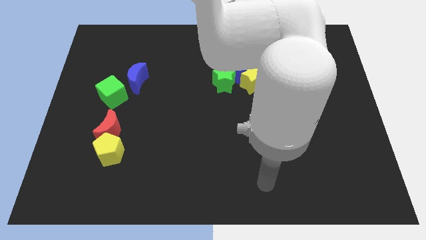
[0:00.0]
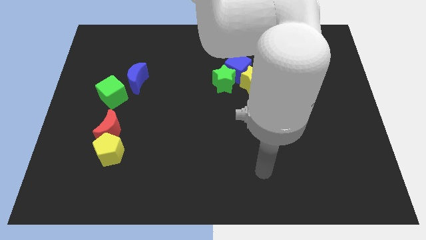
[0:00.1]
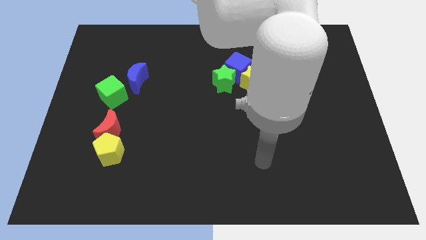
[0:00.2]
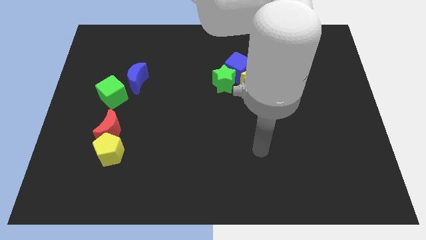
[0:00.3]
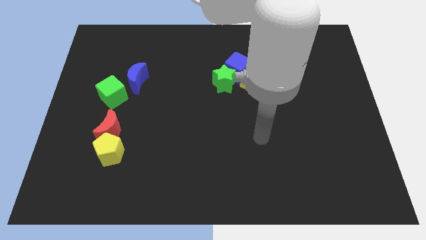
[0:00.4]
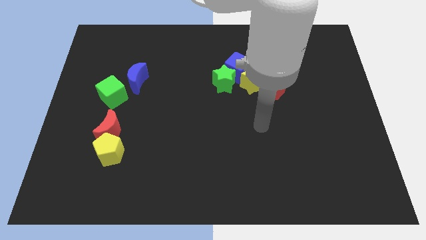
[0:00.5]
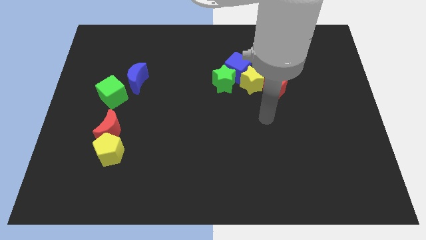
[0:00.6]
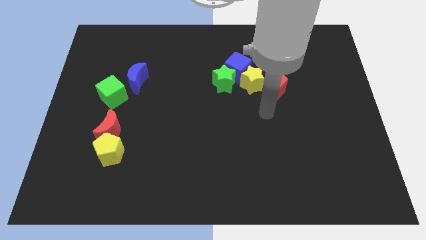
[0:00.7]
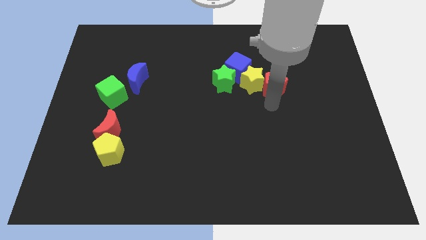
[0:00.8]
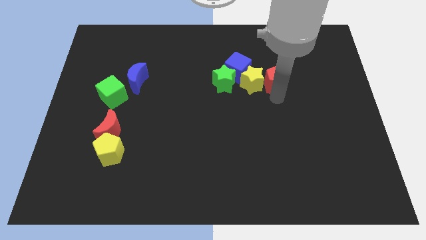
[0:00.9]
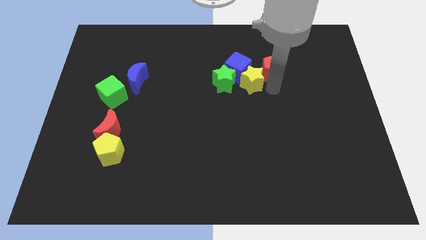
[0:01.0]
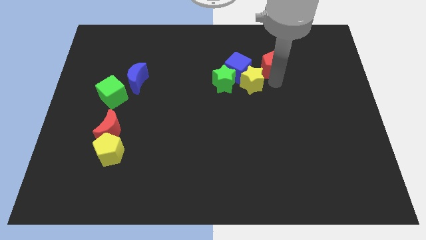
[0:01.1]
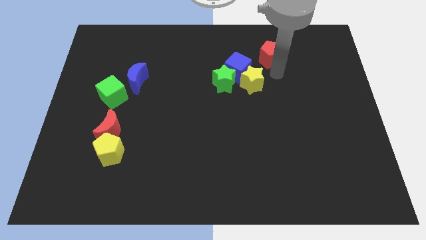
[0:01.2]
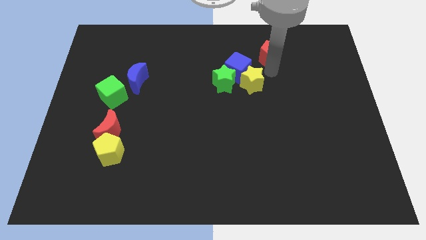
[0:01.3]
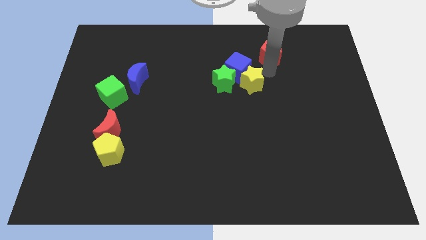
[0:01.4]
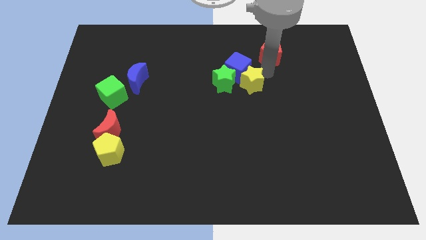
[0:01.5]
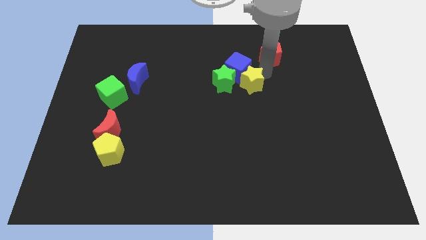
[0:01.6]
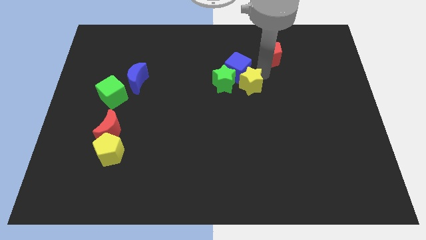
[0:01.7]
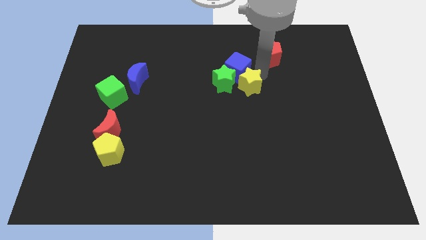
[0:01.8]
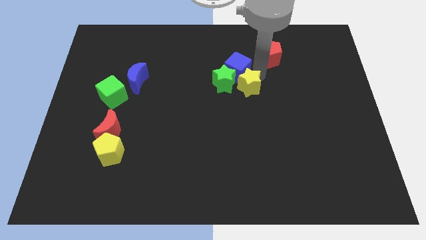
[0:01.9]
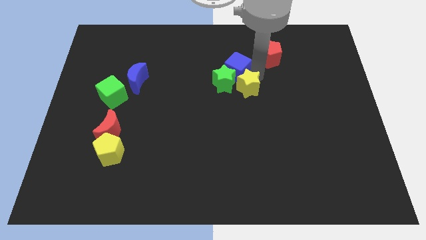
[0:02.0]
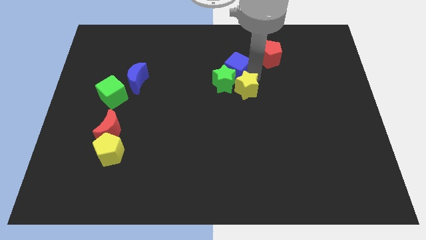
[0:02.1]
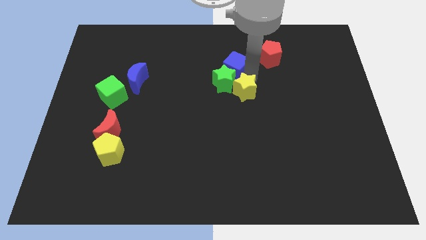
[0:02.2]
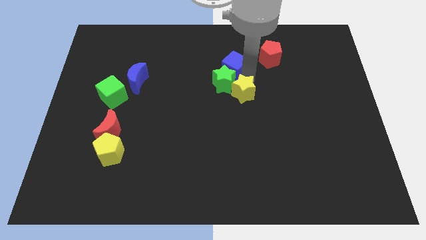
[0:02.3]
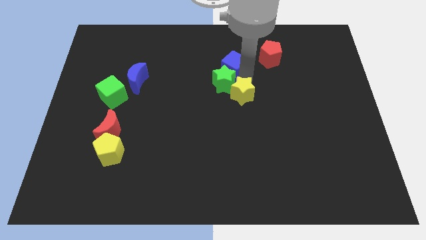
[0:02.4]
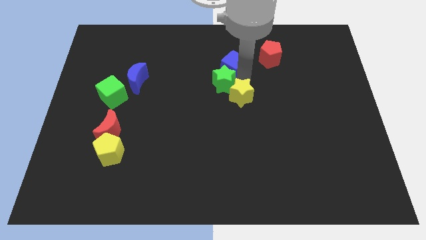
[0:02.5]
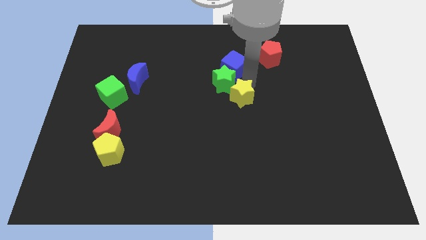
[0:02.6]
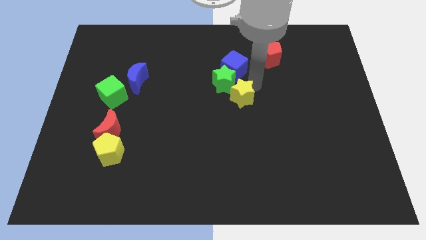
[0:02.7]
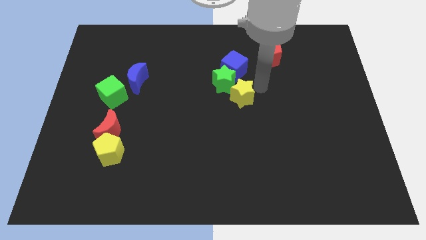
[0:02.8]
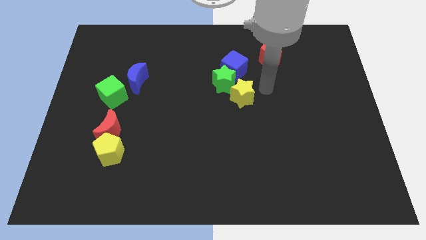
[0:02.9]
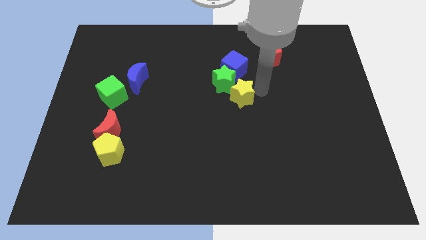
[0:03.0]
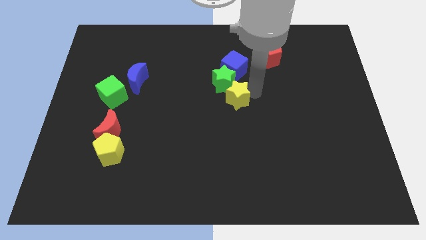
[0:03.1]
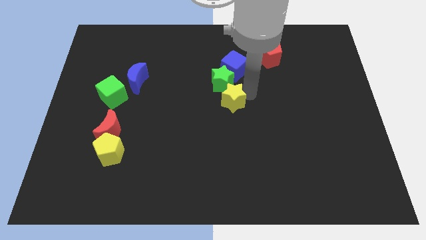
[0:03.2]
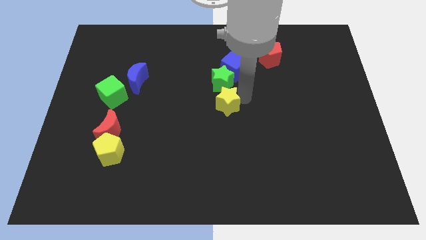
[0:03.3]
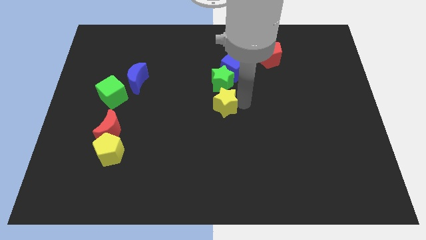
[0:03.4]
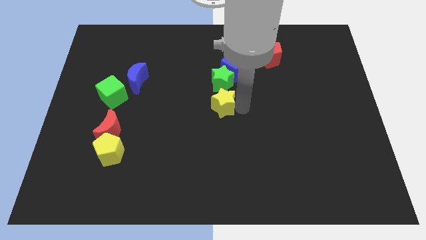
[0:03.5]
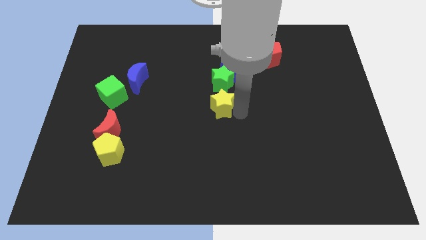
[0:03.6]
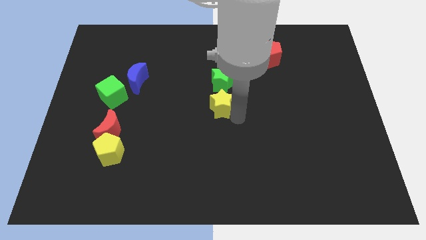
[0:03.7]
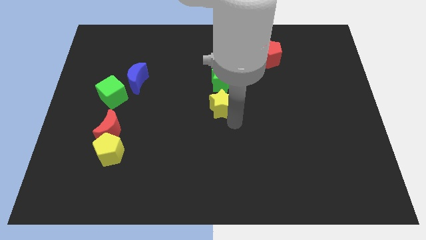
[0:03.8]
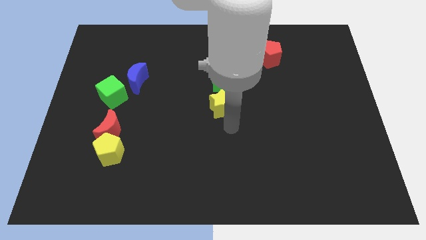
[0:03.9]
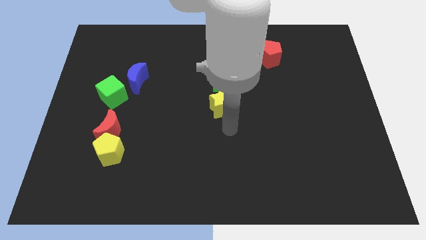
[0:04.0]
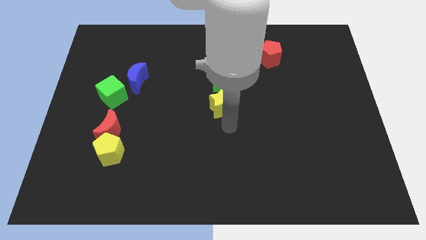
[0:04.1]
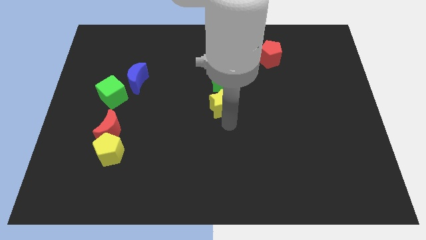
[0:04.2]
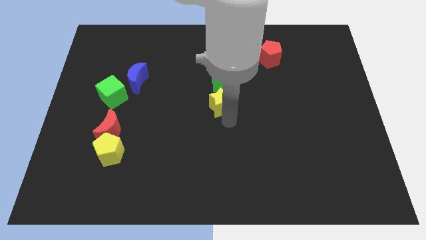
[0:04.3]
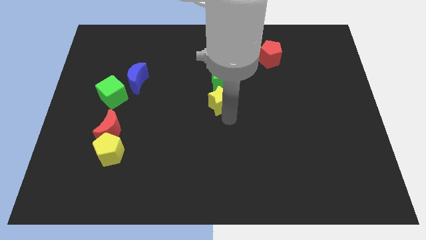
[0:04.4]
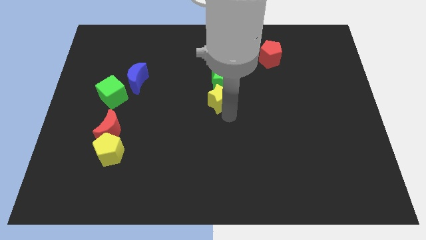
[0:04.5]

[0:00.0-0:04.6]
slide the yellow star diagonally down and to the left of the blue cube

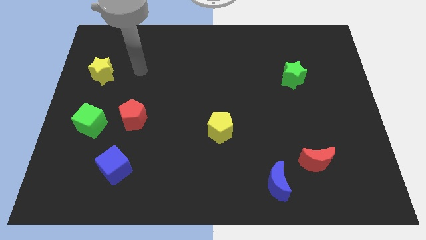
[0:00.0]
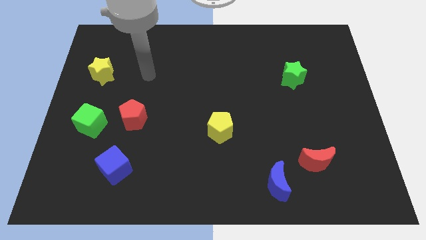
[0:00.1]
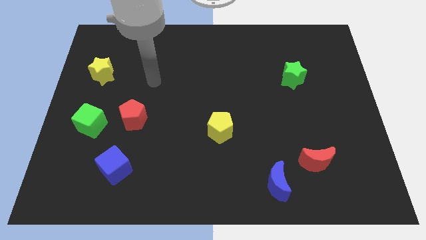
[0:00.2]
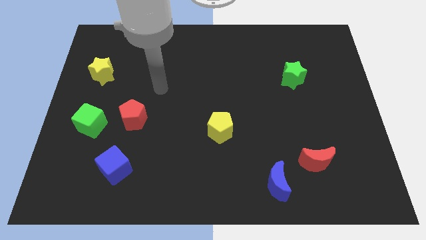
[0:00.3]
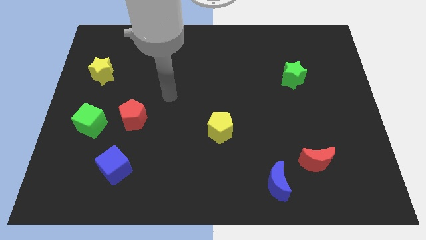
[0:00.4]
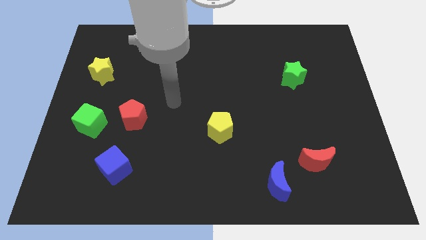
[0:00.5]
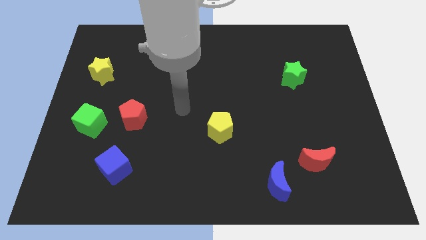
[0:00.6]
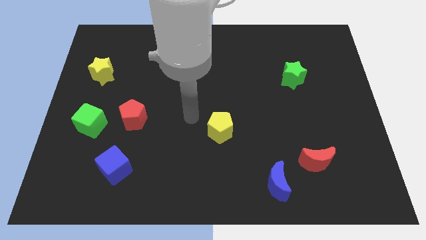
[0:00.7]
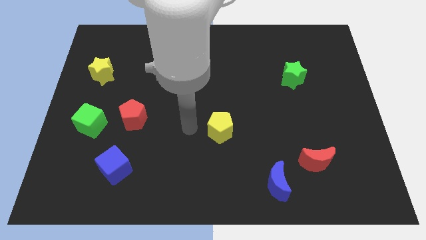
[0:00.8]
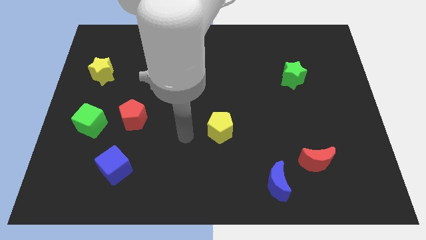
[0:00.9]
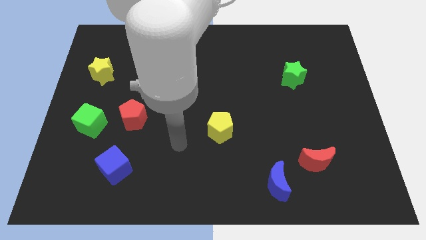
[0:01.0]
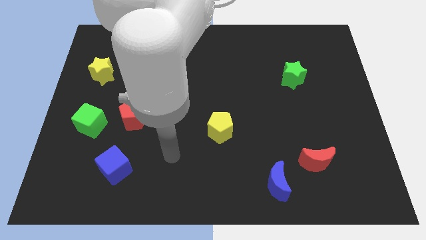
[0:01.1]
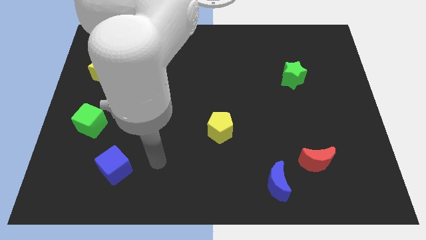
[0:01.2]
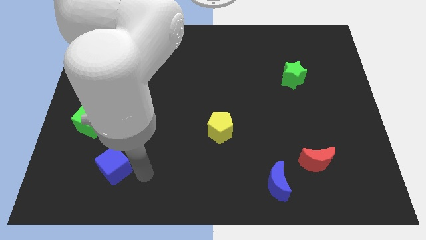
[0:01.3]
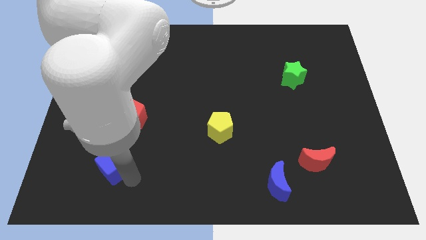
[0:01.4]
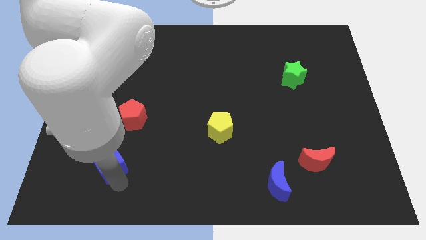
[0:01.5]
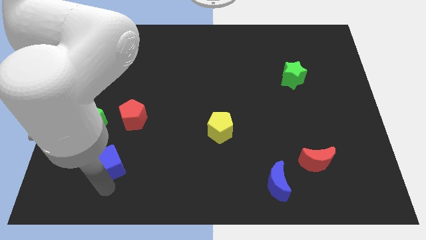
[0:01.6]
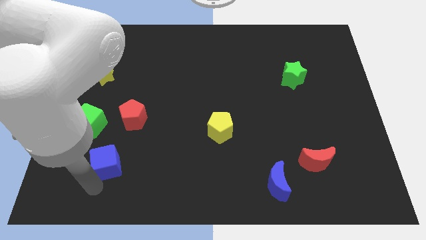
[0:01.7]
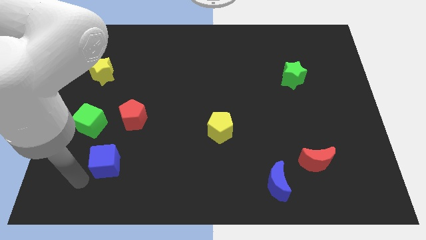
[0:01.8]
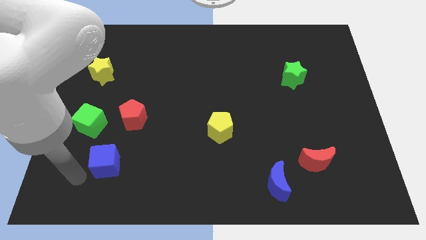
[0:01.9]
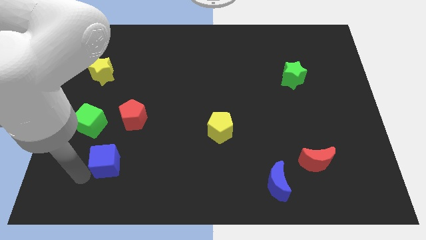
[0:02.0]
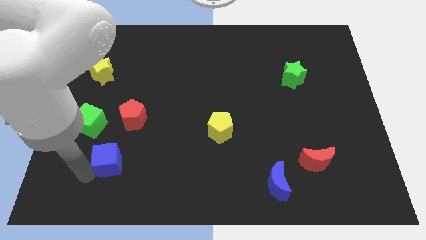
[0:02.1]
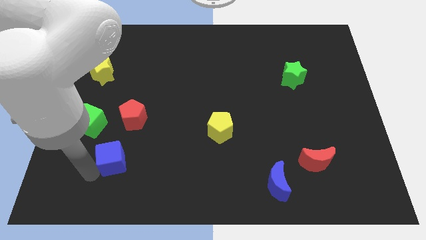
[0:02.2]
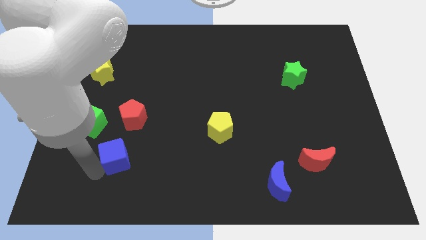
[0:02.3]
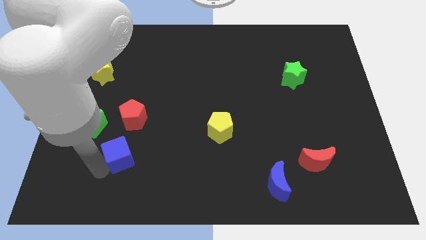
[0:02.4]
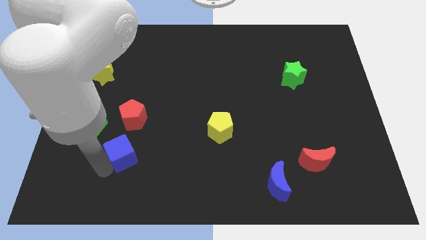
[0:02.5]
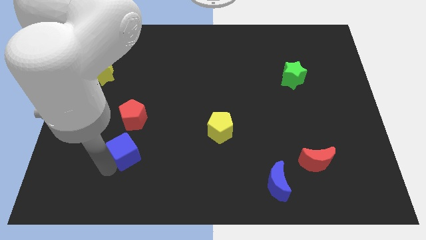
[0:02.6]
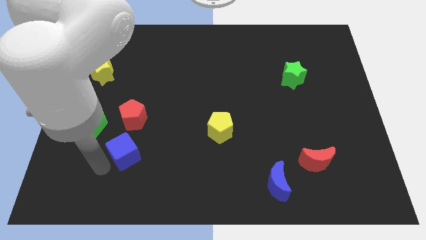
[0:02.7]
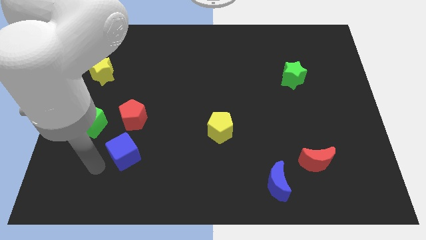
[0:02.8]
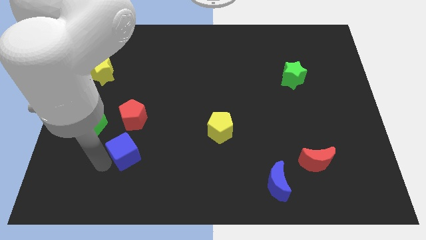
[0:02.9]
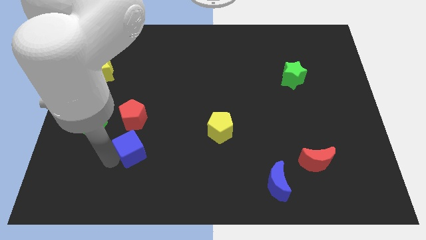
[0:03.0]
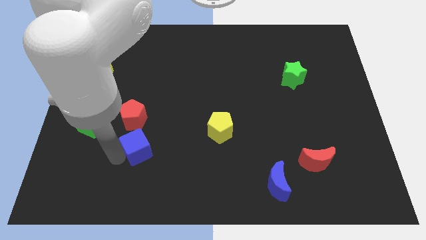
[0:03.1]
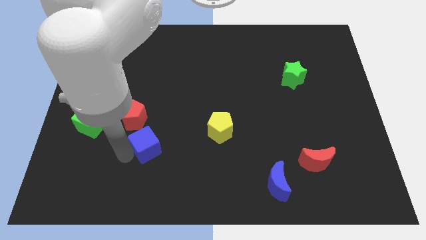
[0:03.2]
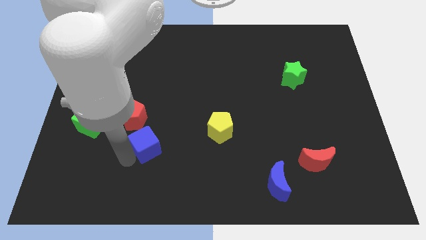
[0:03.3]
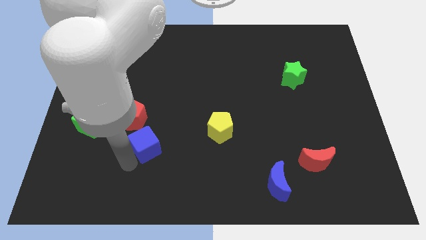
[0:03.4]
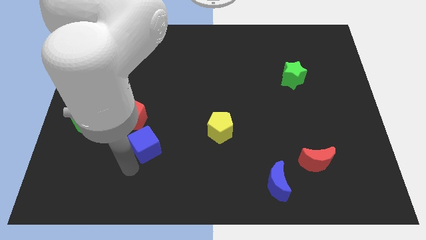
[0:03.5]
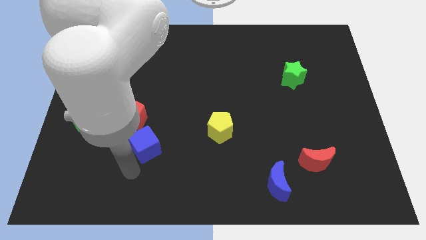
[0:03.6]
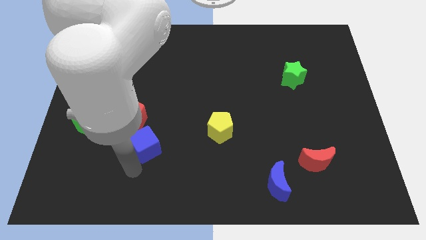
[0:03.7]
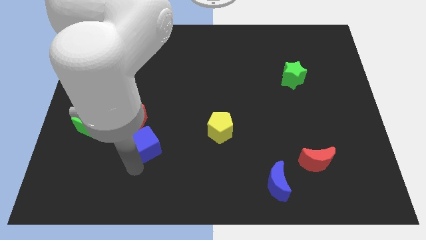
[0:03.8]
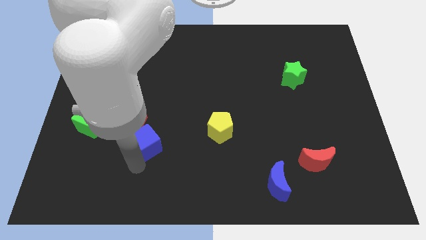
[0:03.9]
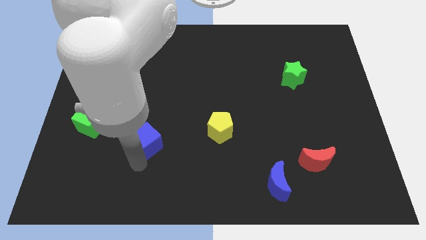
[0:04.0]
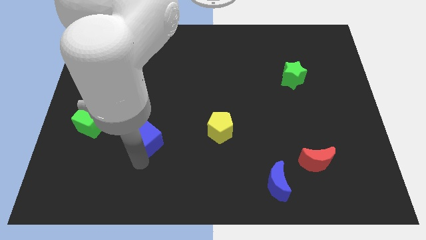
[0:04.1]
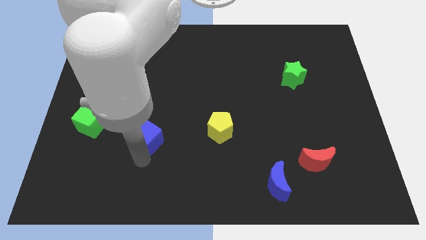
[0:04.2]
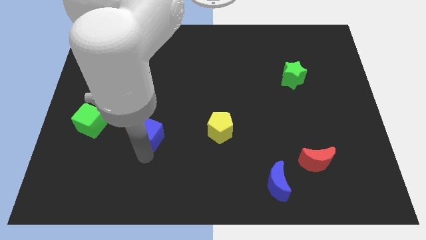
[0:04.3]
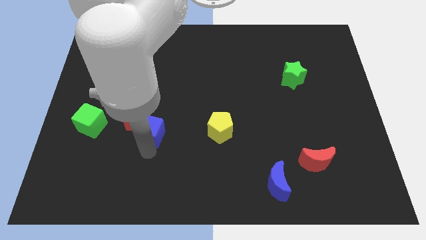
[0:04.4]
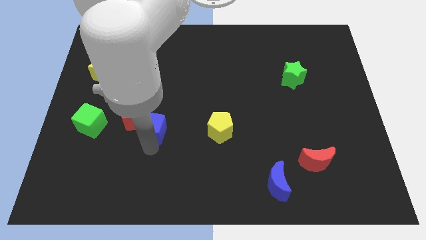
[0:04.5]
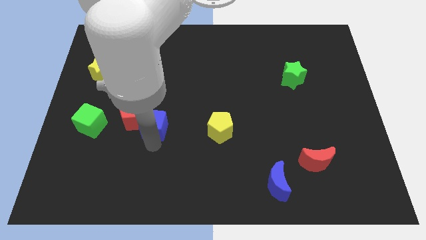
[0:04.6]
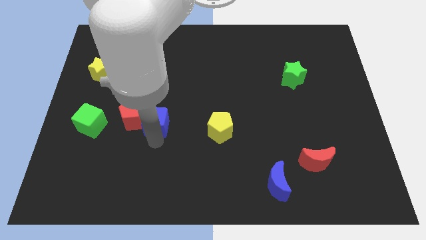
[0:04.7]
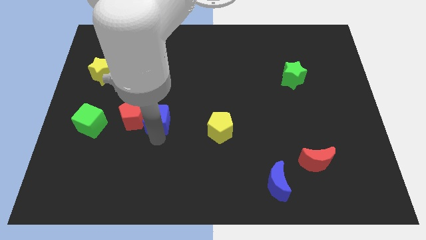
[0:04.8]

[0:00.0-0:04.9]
move the blue cube to the top right side of the red pentagon
